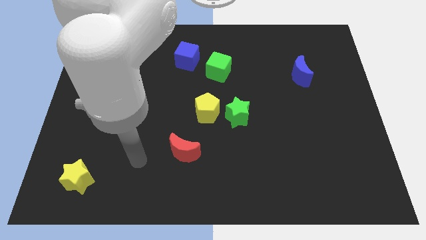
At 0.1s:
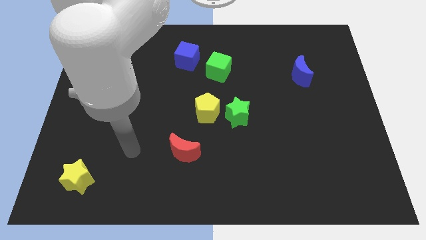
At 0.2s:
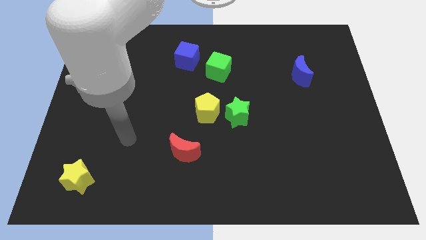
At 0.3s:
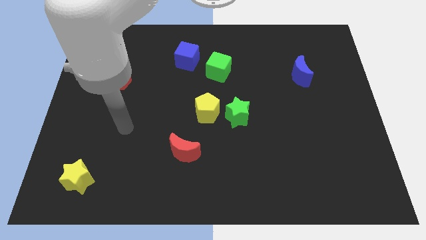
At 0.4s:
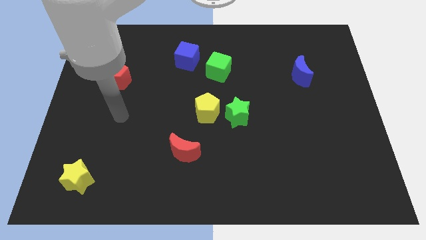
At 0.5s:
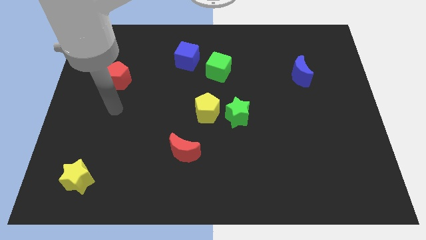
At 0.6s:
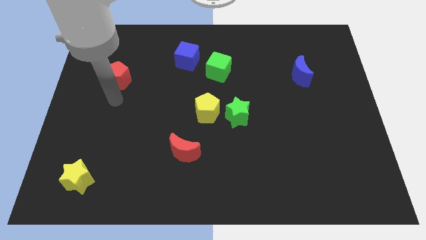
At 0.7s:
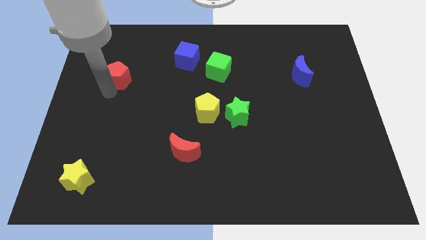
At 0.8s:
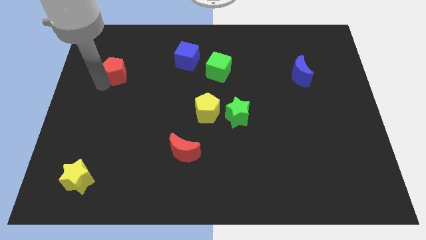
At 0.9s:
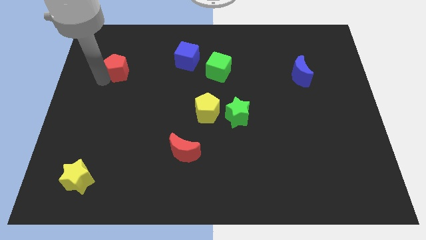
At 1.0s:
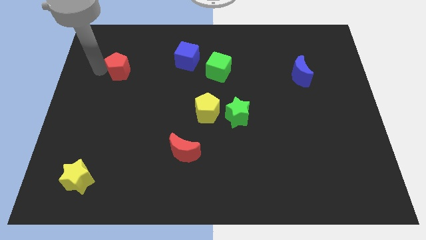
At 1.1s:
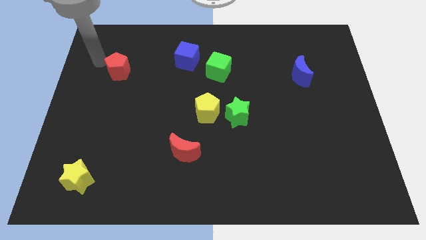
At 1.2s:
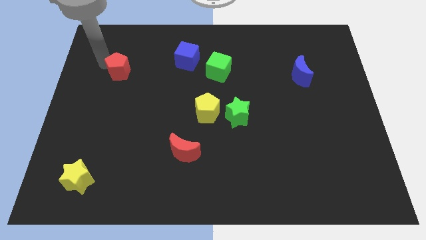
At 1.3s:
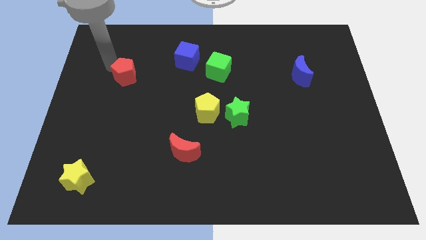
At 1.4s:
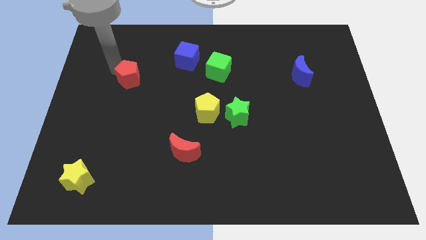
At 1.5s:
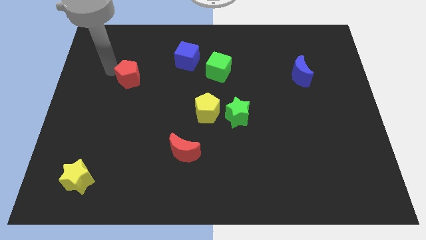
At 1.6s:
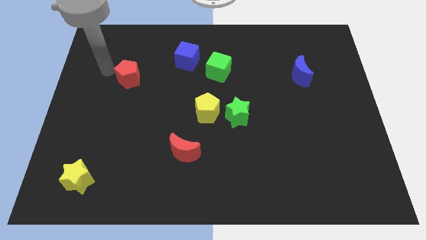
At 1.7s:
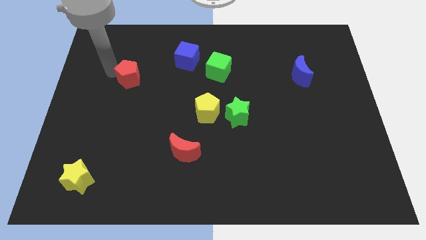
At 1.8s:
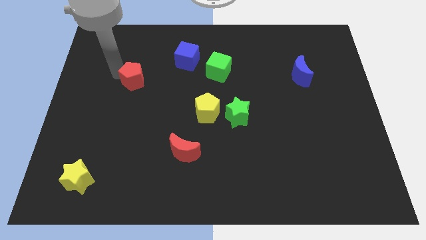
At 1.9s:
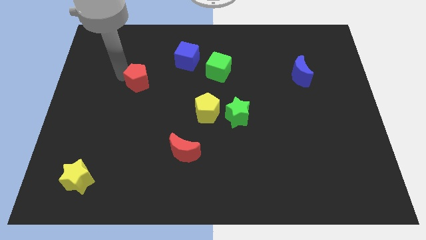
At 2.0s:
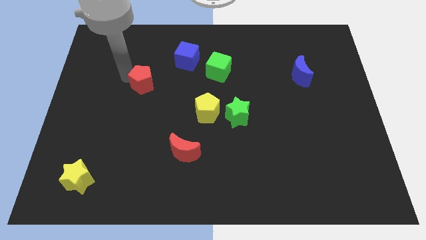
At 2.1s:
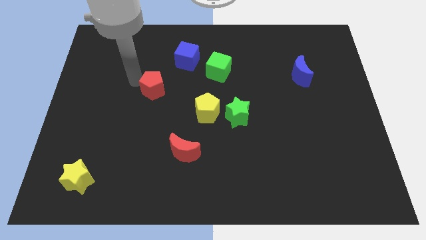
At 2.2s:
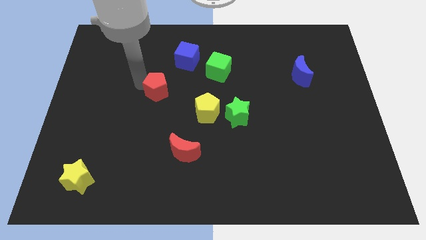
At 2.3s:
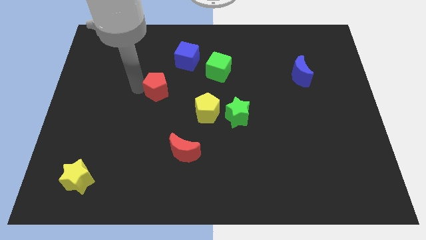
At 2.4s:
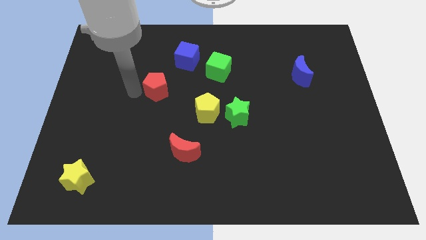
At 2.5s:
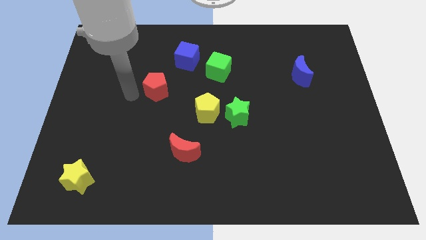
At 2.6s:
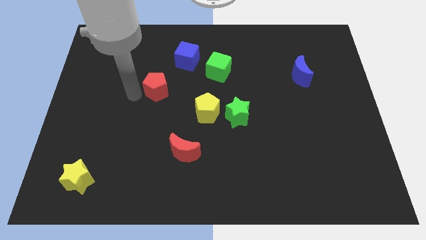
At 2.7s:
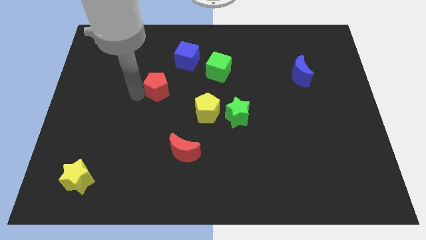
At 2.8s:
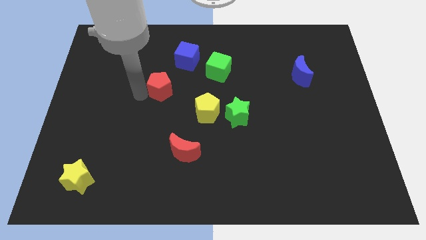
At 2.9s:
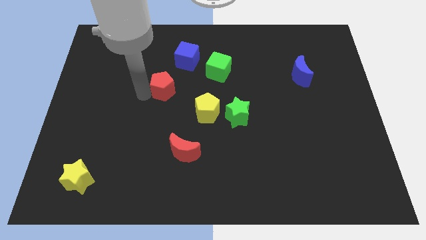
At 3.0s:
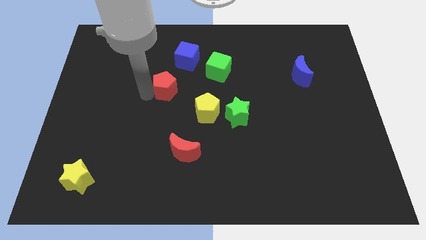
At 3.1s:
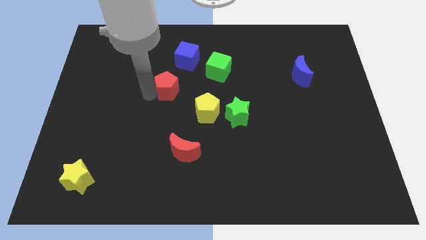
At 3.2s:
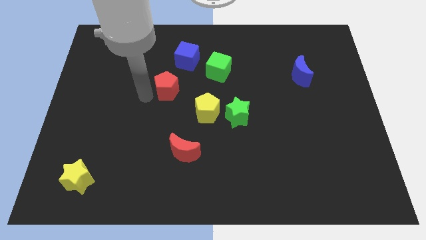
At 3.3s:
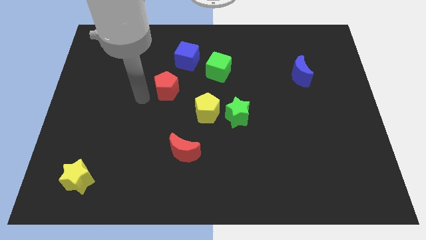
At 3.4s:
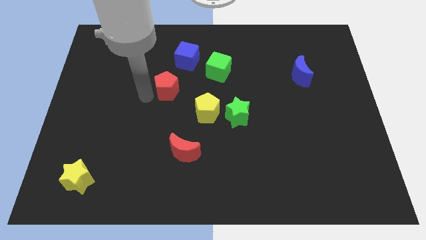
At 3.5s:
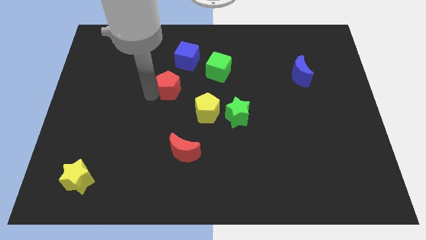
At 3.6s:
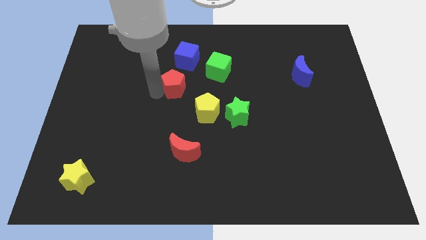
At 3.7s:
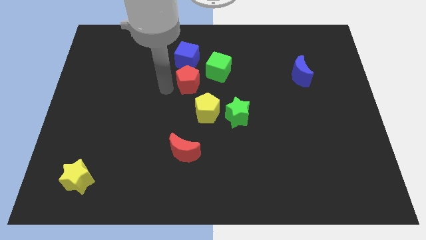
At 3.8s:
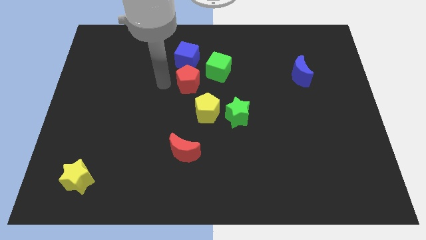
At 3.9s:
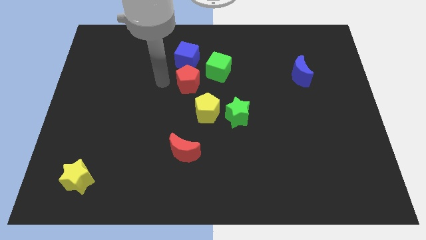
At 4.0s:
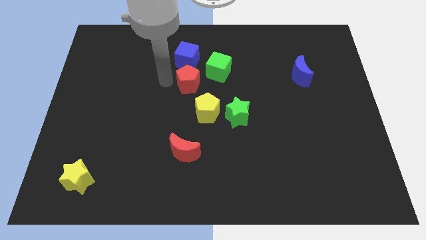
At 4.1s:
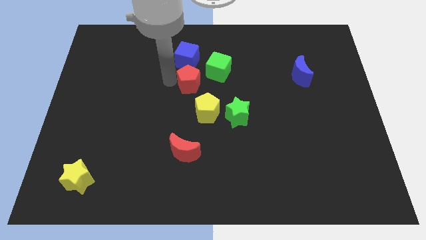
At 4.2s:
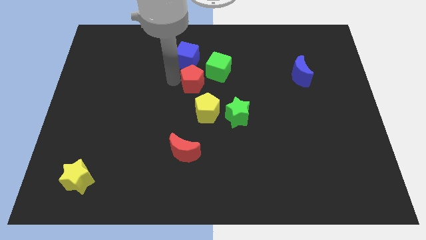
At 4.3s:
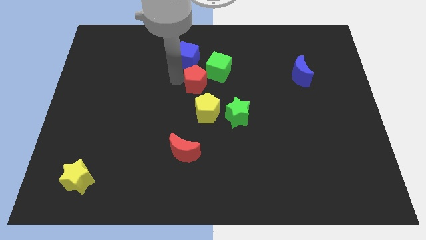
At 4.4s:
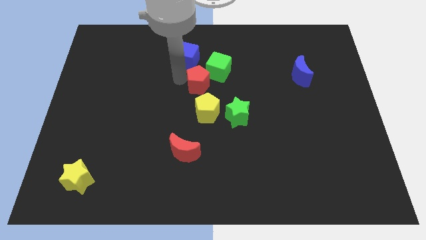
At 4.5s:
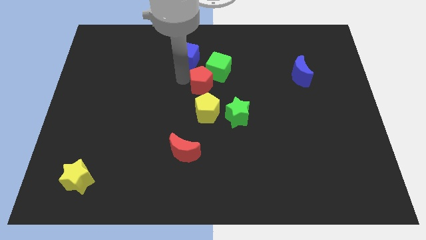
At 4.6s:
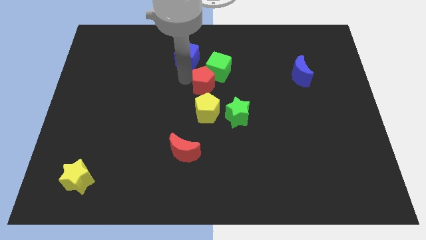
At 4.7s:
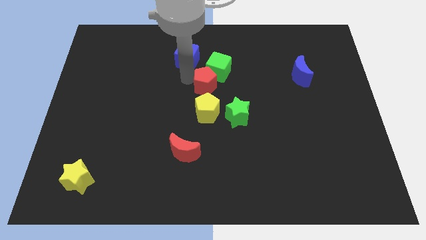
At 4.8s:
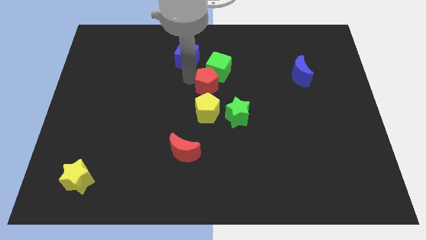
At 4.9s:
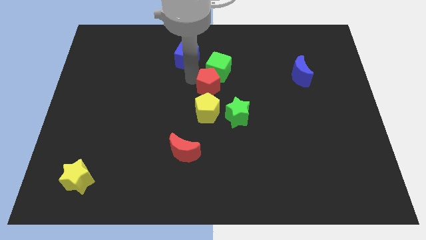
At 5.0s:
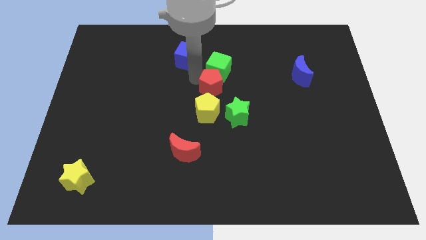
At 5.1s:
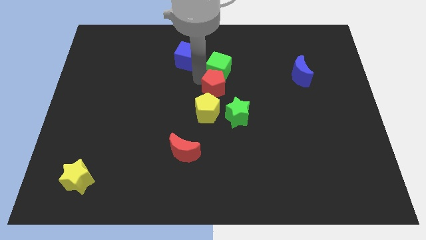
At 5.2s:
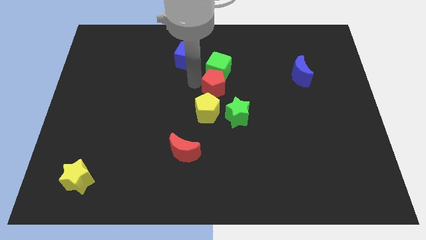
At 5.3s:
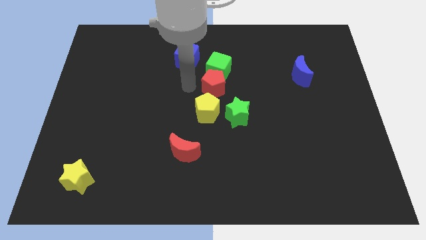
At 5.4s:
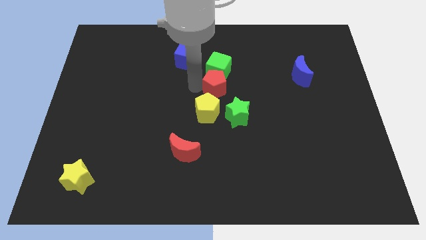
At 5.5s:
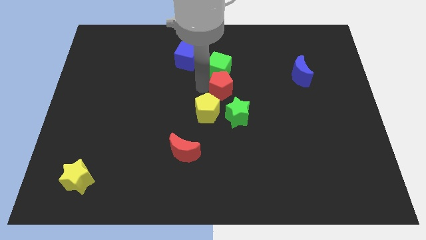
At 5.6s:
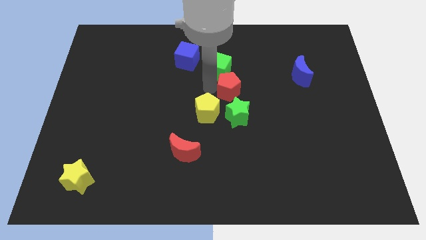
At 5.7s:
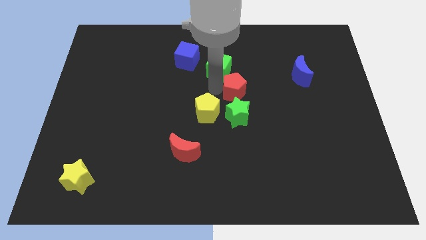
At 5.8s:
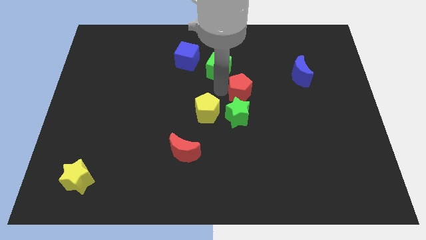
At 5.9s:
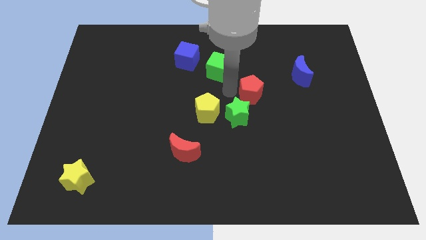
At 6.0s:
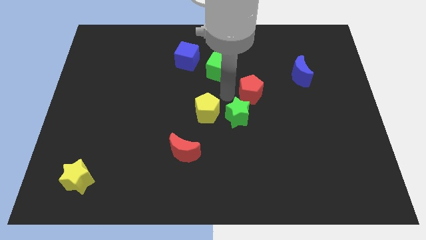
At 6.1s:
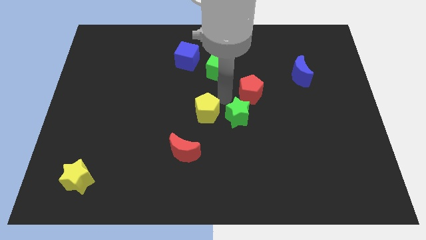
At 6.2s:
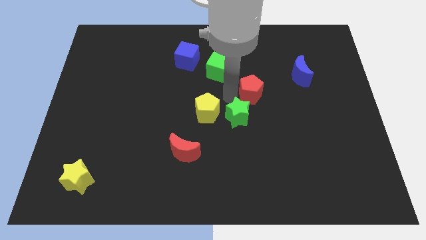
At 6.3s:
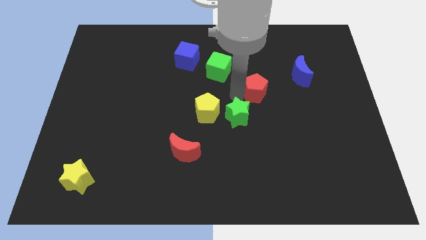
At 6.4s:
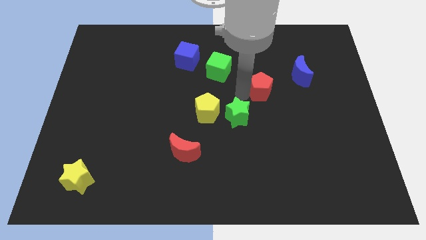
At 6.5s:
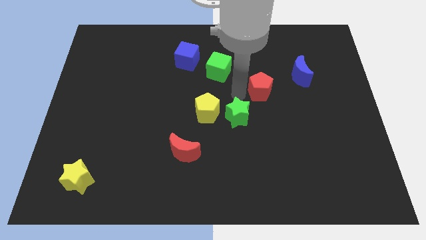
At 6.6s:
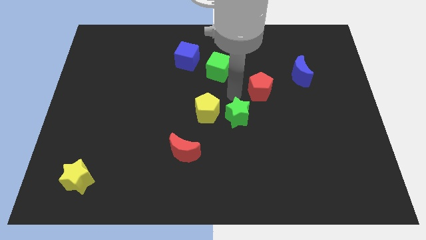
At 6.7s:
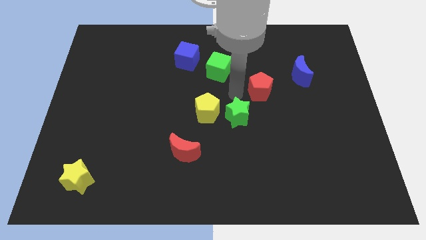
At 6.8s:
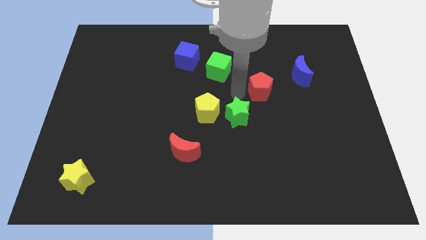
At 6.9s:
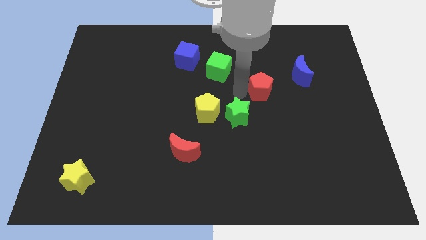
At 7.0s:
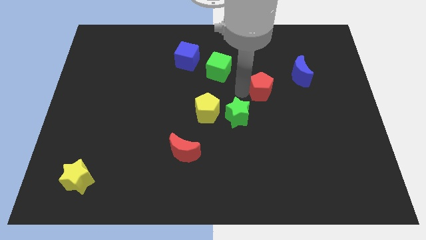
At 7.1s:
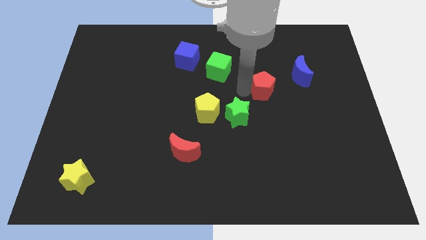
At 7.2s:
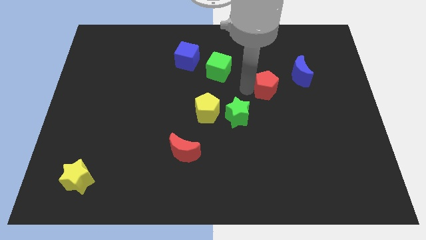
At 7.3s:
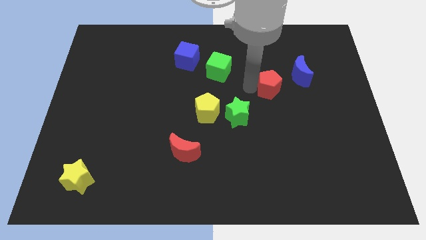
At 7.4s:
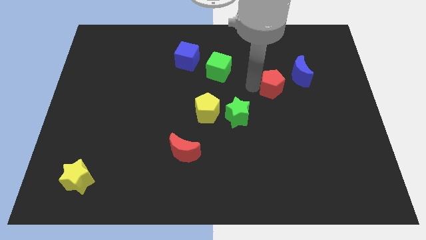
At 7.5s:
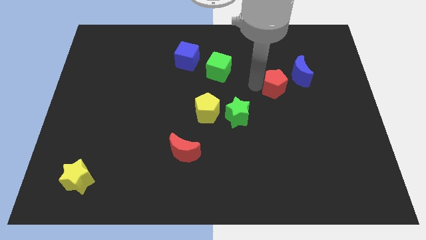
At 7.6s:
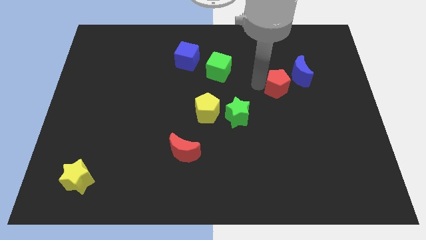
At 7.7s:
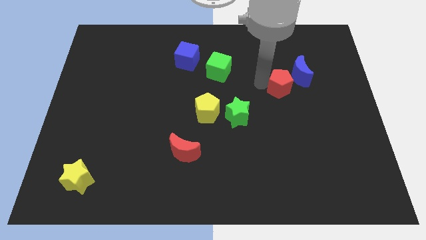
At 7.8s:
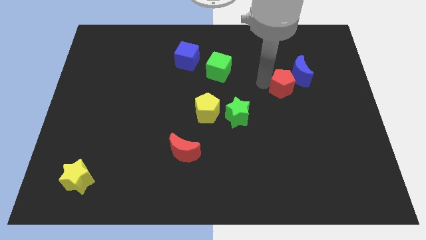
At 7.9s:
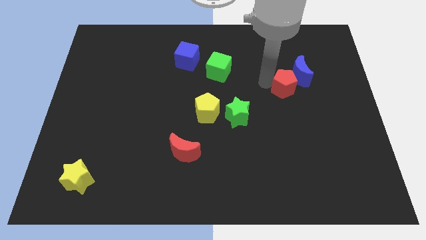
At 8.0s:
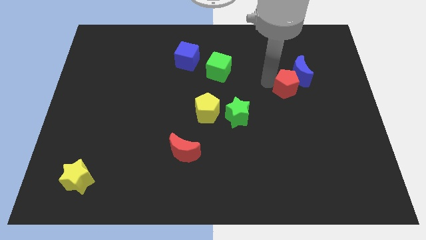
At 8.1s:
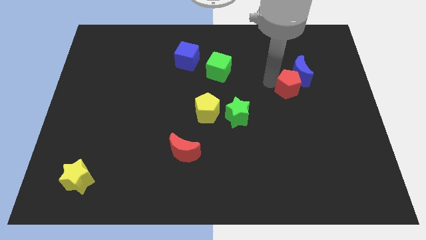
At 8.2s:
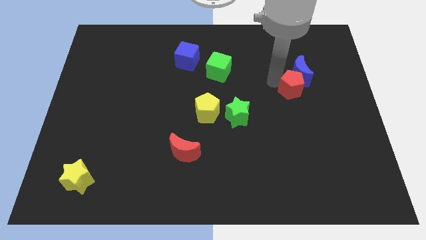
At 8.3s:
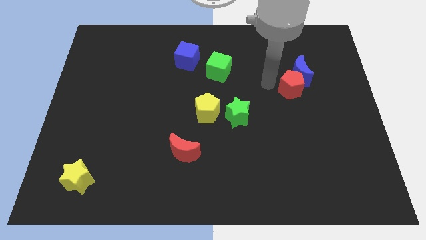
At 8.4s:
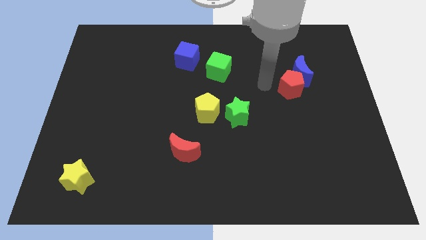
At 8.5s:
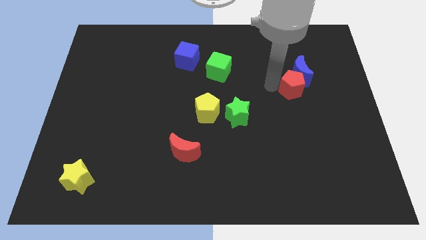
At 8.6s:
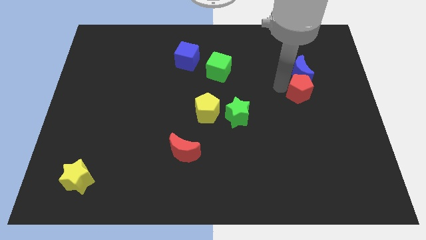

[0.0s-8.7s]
move the red pentagon diagonally down and to the right of the blue moon
